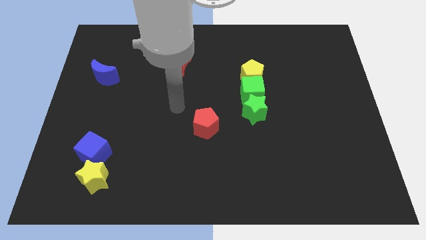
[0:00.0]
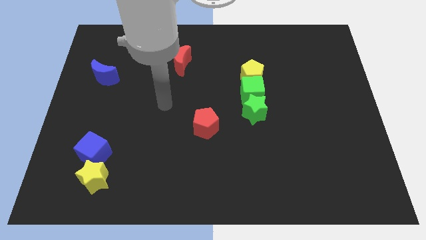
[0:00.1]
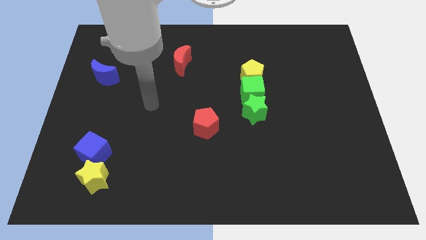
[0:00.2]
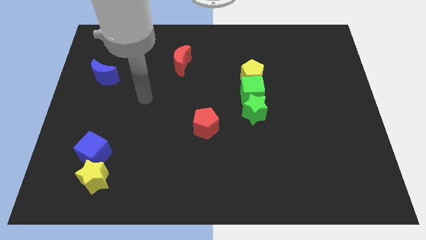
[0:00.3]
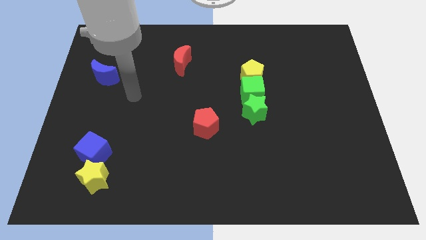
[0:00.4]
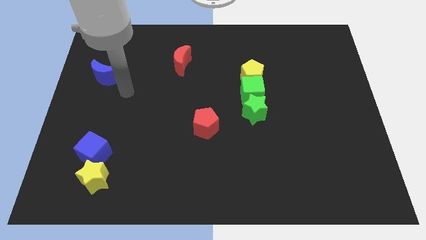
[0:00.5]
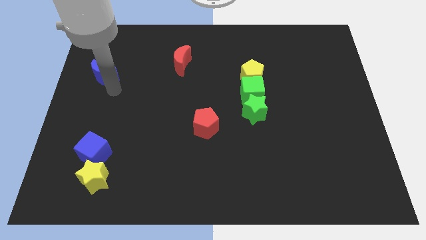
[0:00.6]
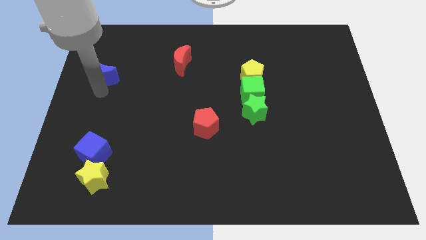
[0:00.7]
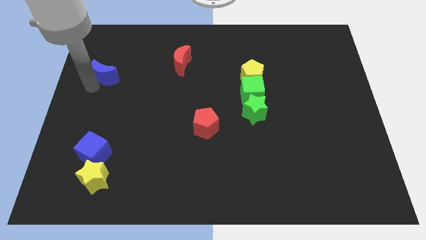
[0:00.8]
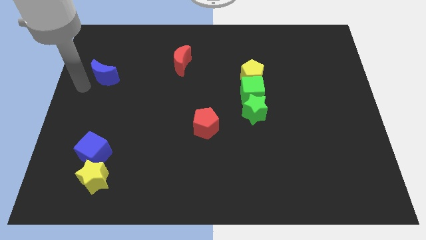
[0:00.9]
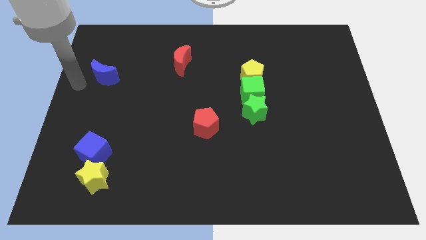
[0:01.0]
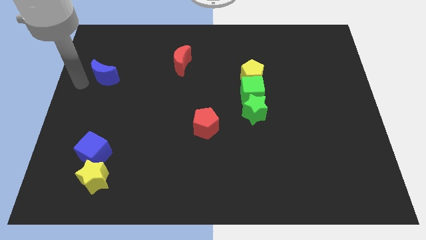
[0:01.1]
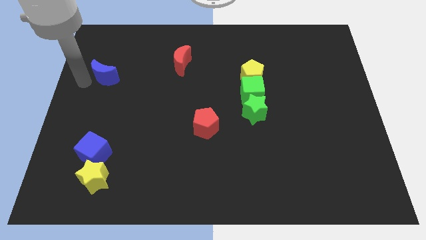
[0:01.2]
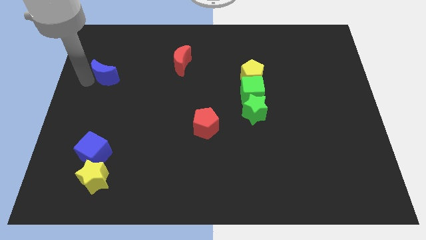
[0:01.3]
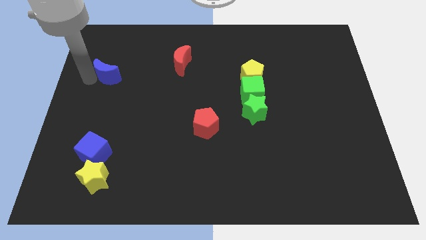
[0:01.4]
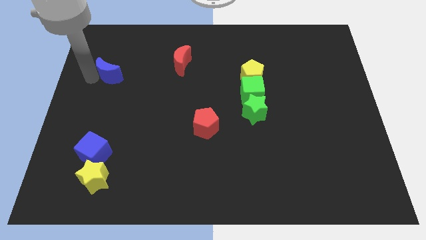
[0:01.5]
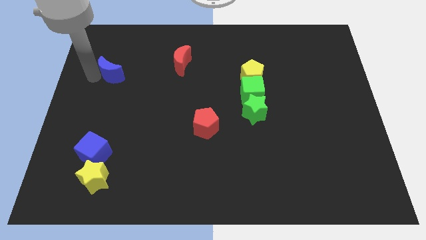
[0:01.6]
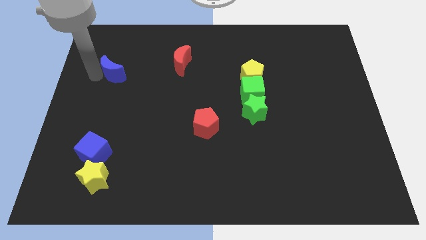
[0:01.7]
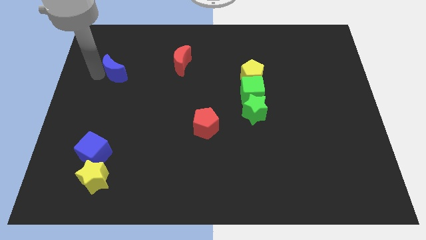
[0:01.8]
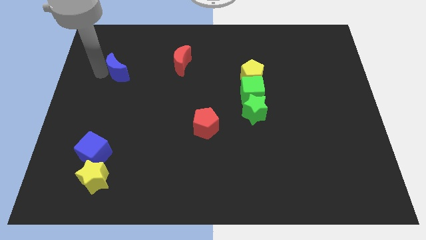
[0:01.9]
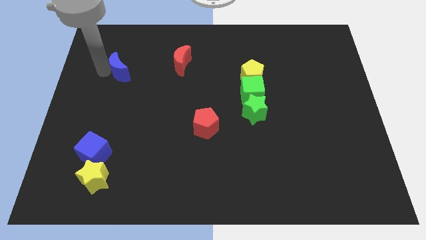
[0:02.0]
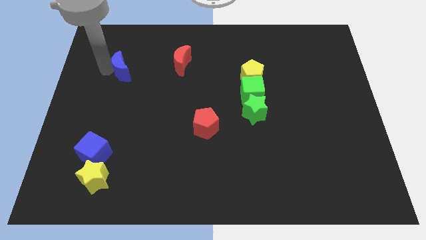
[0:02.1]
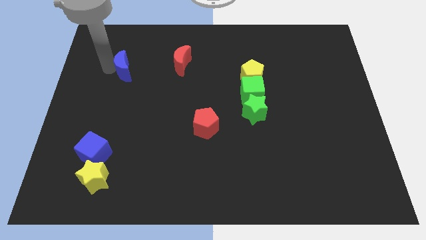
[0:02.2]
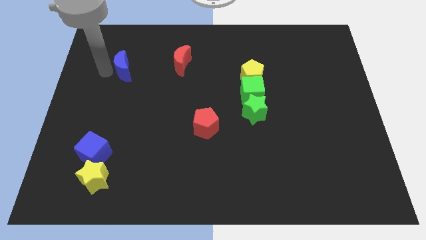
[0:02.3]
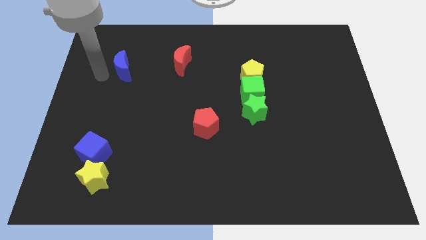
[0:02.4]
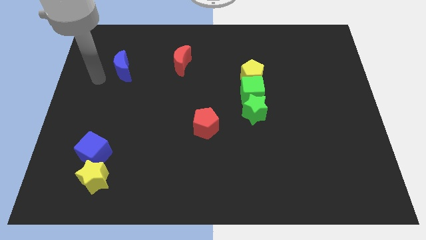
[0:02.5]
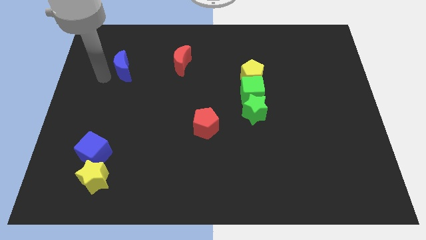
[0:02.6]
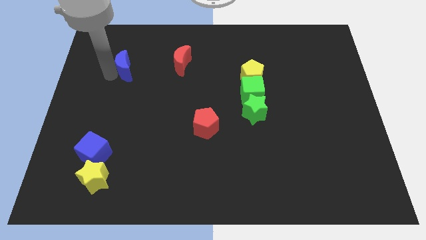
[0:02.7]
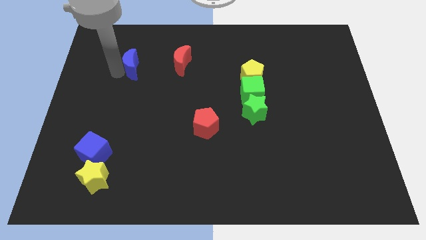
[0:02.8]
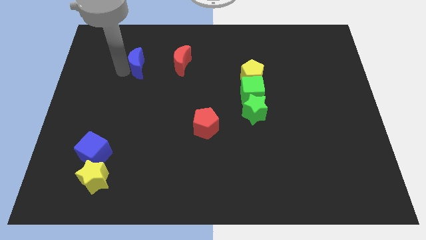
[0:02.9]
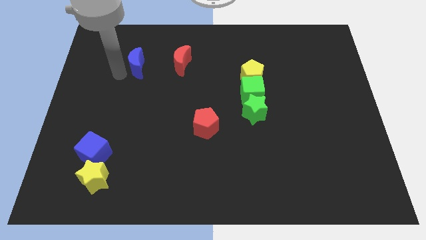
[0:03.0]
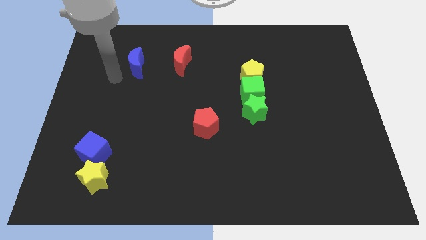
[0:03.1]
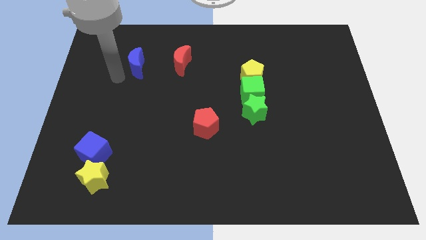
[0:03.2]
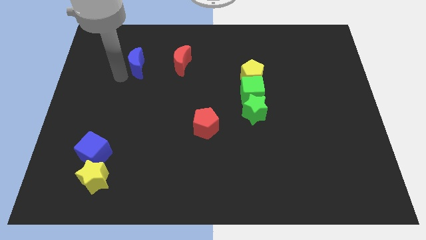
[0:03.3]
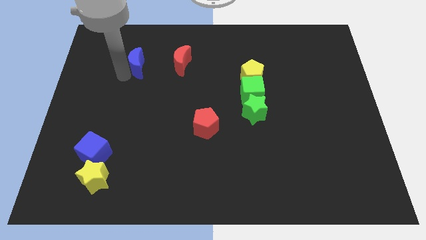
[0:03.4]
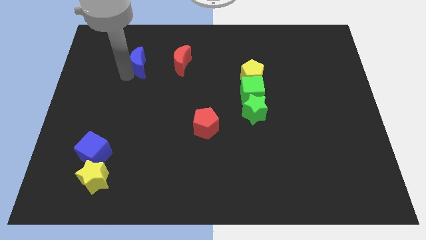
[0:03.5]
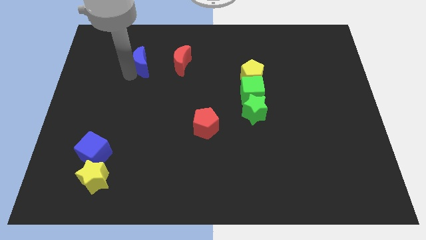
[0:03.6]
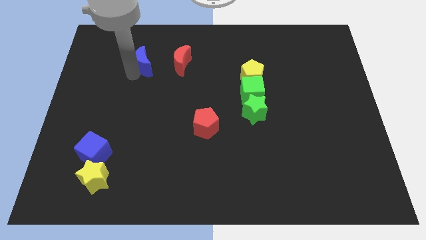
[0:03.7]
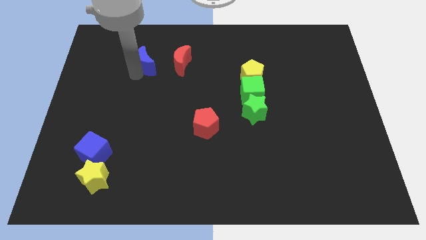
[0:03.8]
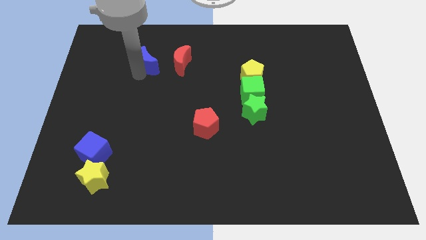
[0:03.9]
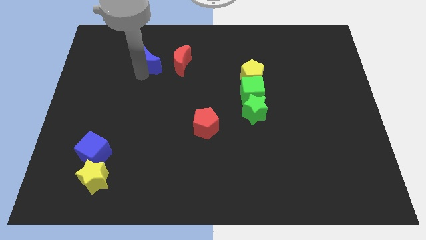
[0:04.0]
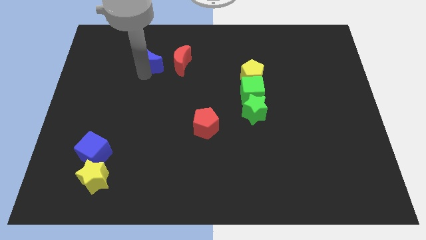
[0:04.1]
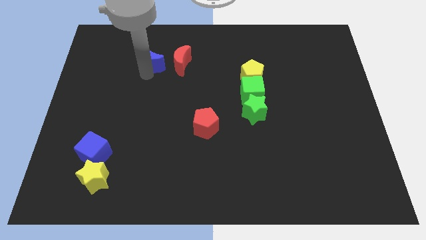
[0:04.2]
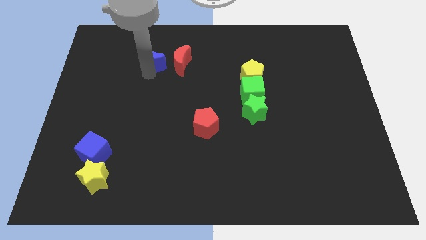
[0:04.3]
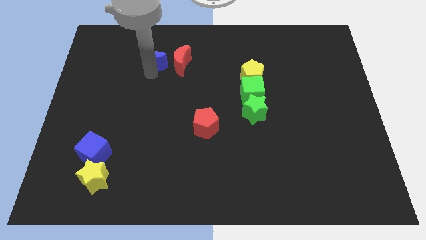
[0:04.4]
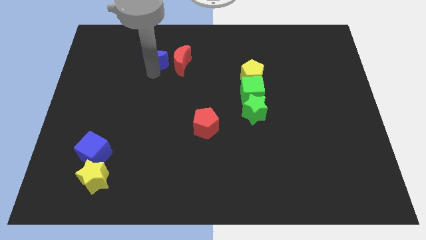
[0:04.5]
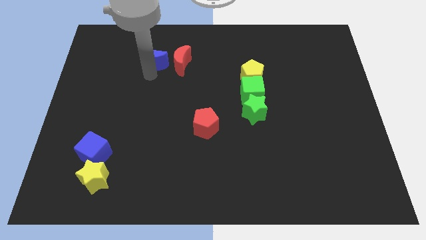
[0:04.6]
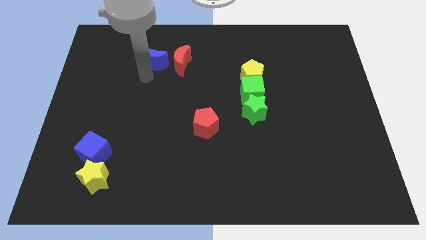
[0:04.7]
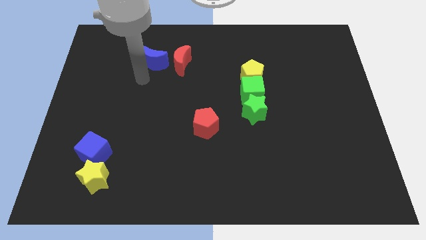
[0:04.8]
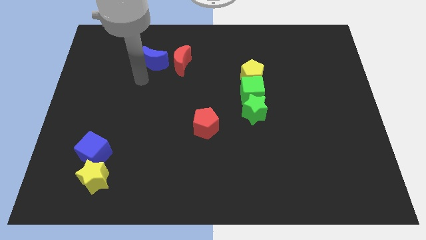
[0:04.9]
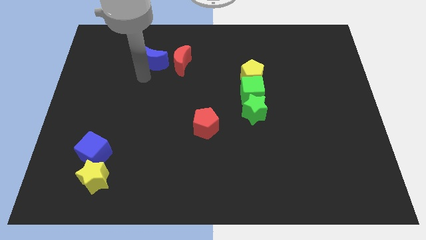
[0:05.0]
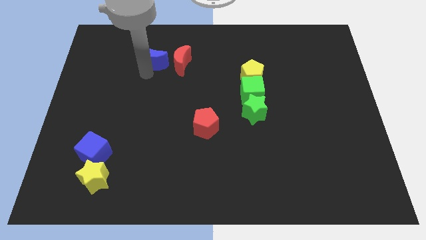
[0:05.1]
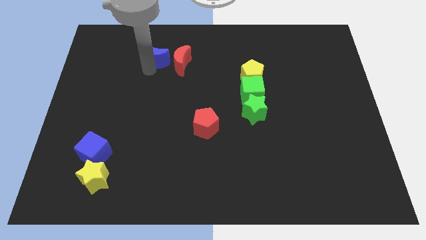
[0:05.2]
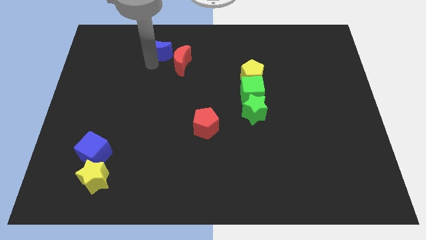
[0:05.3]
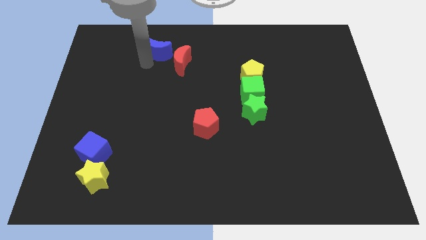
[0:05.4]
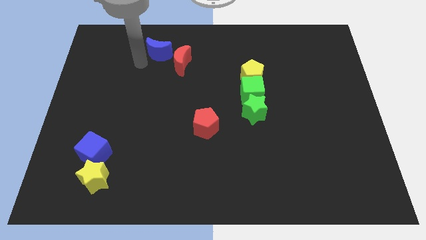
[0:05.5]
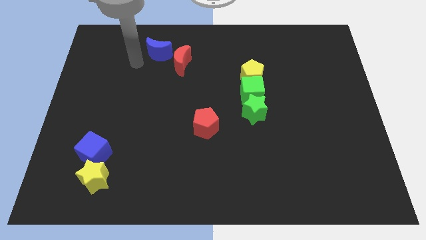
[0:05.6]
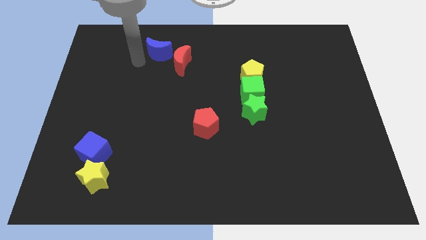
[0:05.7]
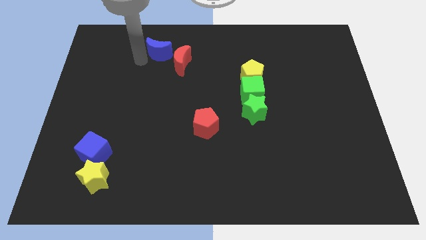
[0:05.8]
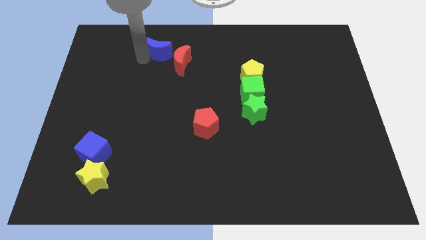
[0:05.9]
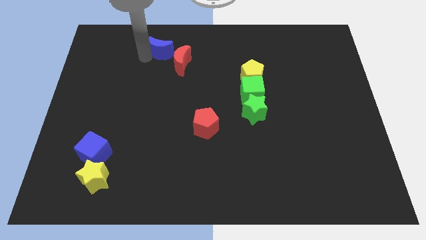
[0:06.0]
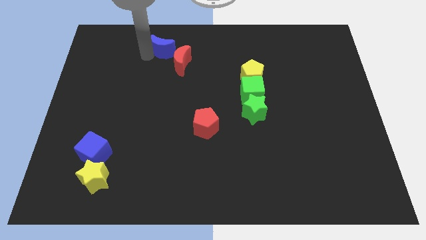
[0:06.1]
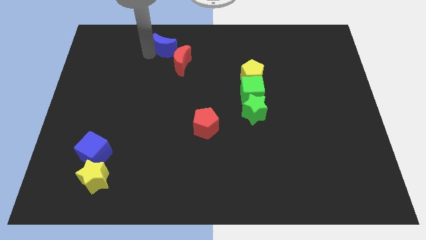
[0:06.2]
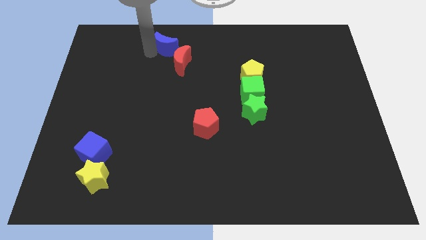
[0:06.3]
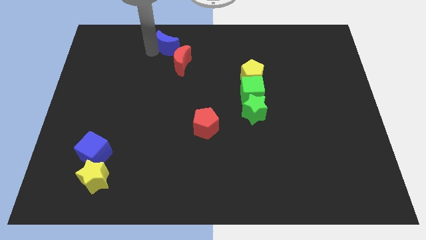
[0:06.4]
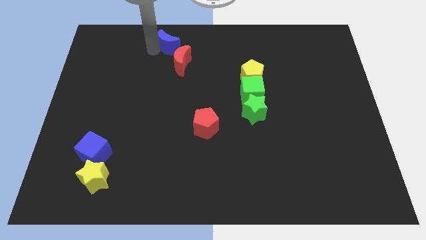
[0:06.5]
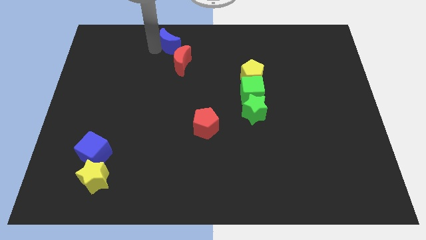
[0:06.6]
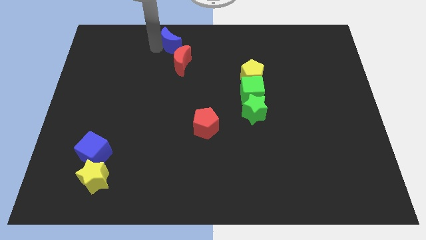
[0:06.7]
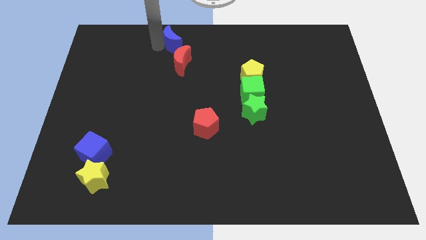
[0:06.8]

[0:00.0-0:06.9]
move the blue moon to the top side

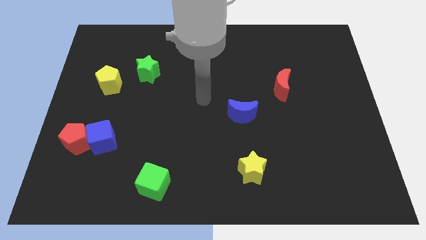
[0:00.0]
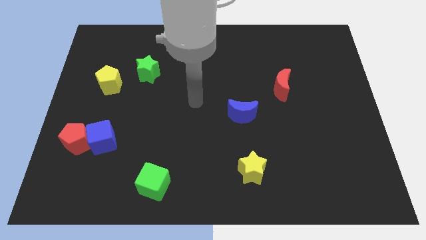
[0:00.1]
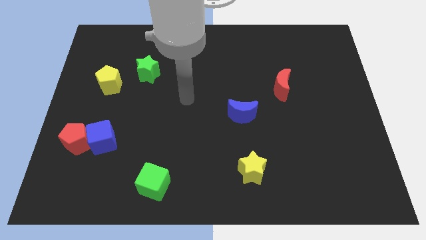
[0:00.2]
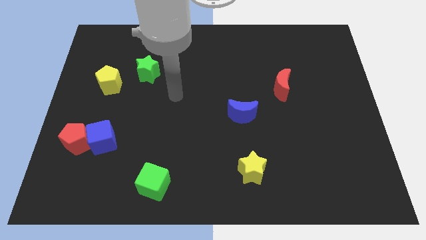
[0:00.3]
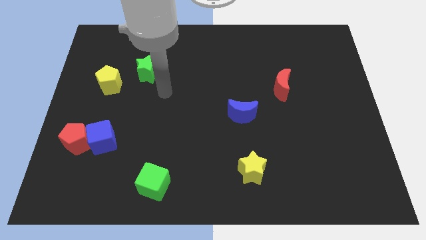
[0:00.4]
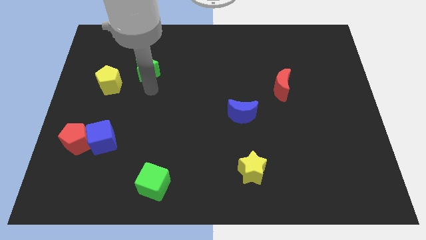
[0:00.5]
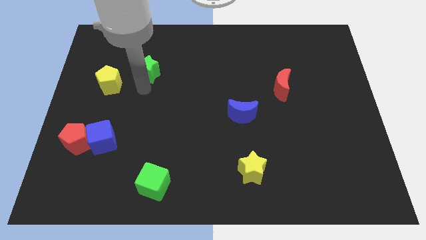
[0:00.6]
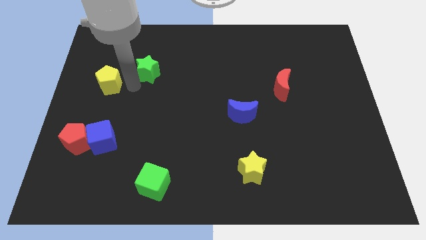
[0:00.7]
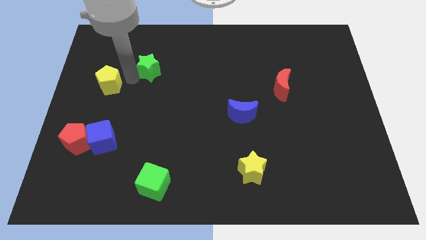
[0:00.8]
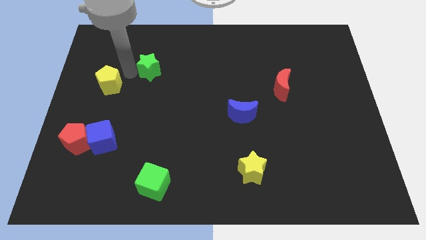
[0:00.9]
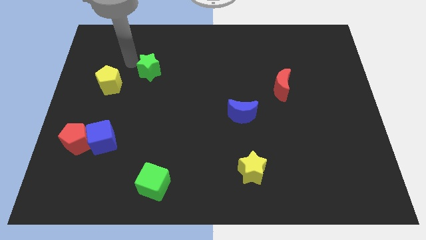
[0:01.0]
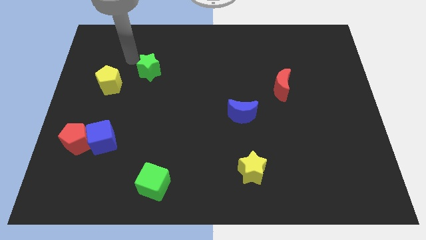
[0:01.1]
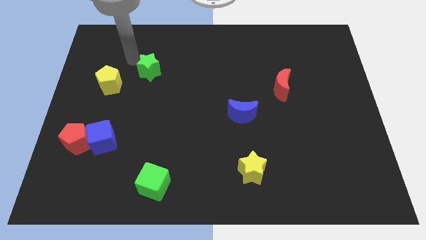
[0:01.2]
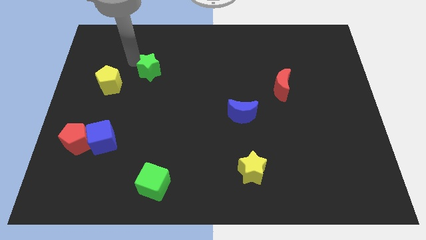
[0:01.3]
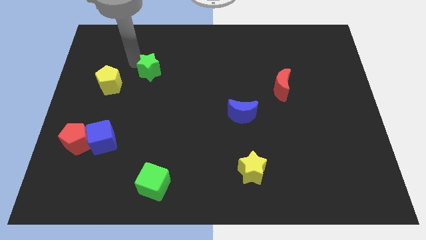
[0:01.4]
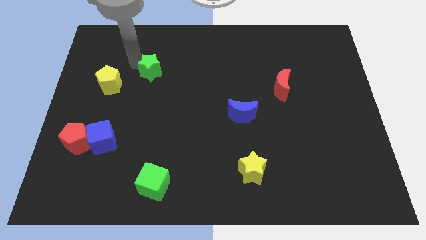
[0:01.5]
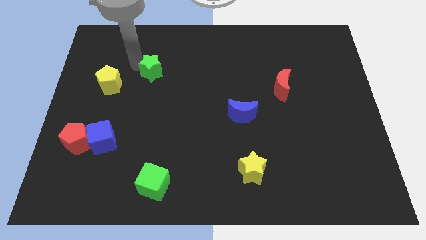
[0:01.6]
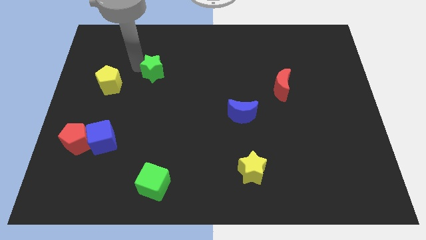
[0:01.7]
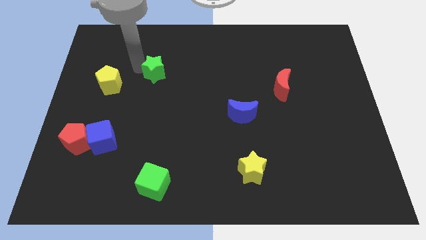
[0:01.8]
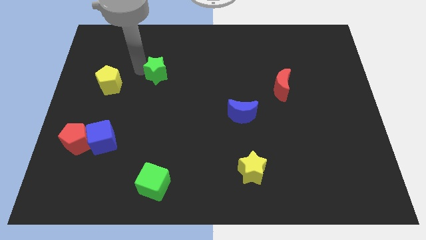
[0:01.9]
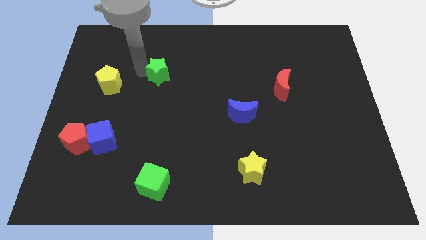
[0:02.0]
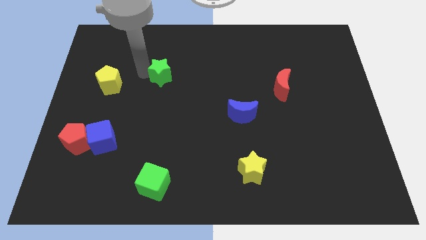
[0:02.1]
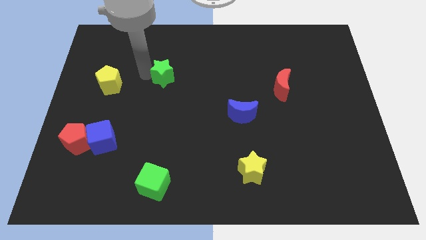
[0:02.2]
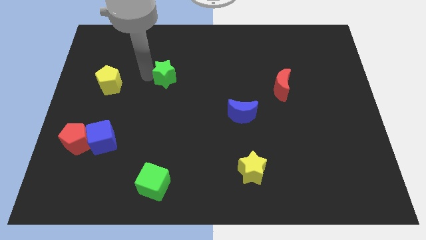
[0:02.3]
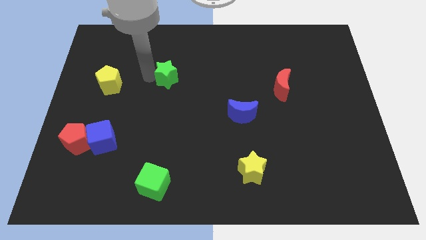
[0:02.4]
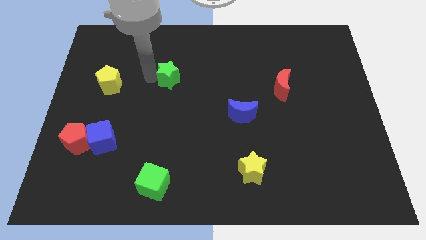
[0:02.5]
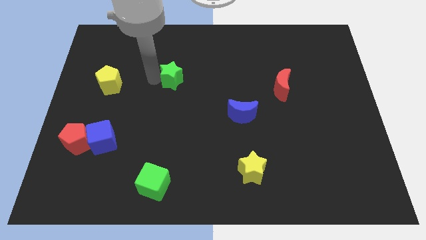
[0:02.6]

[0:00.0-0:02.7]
move the green star to the middle of the board
